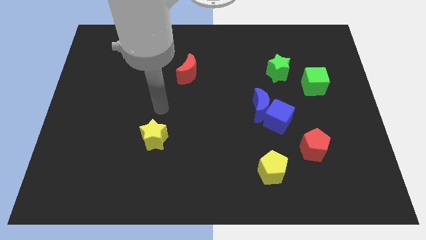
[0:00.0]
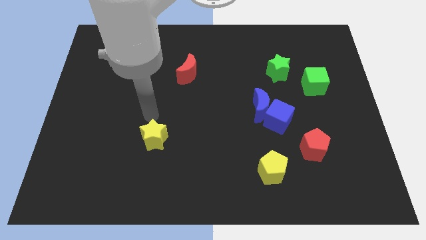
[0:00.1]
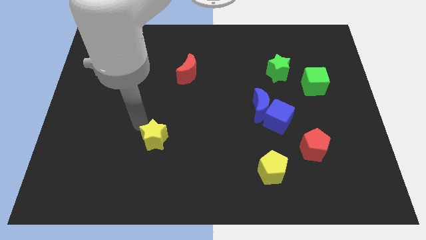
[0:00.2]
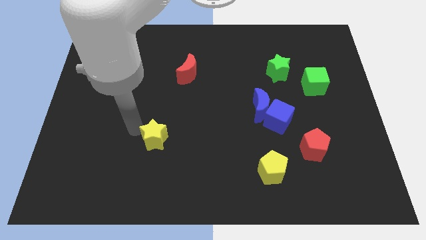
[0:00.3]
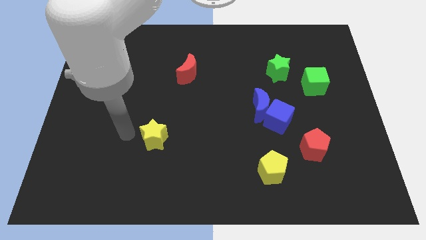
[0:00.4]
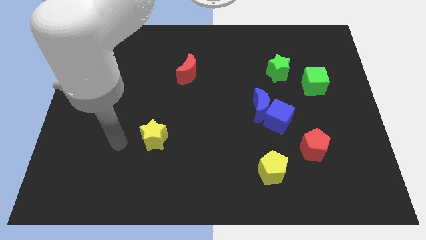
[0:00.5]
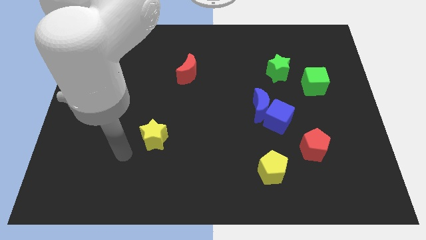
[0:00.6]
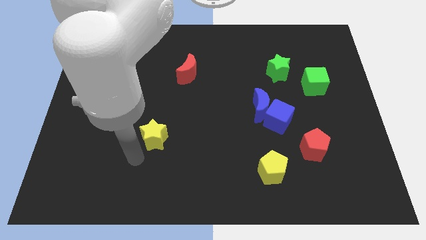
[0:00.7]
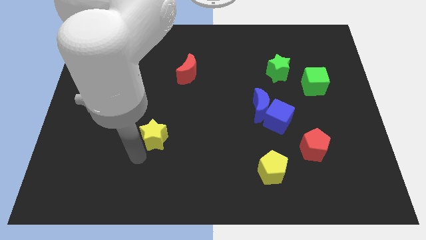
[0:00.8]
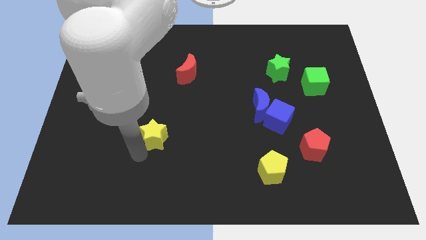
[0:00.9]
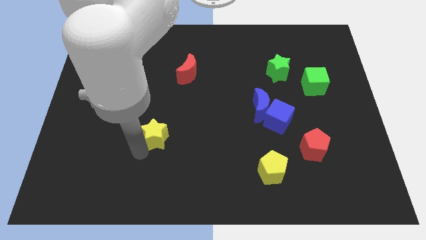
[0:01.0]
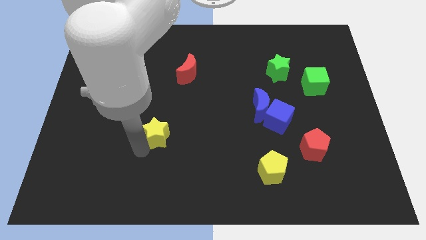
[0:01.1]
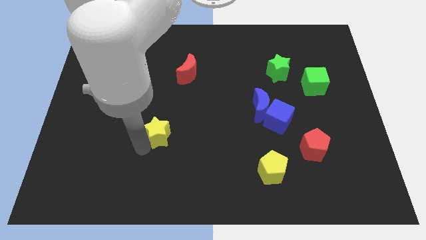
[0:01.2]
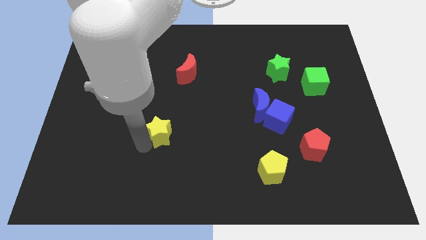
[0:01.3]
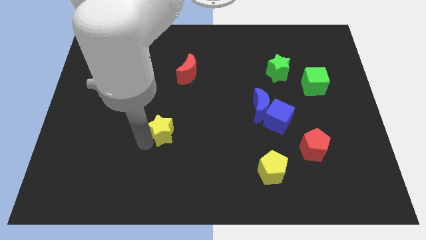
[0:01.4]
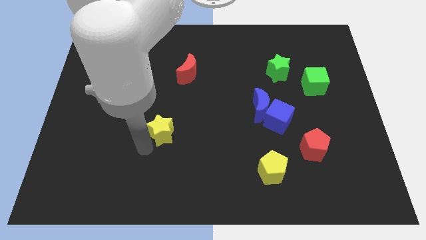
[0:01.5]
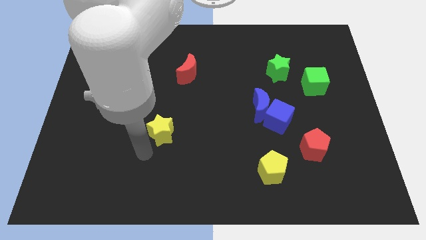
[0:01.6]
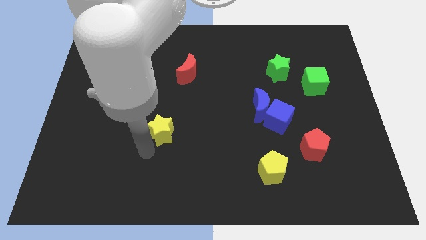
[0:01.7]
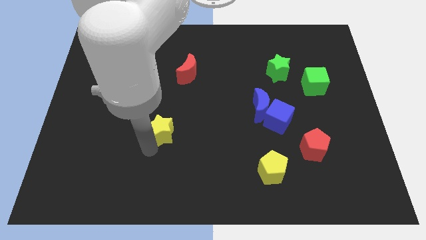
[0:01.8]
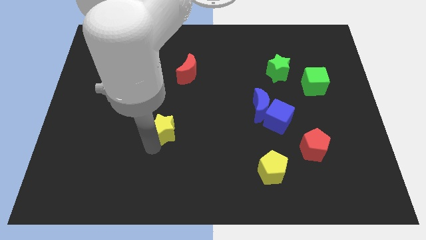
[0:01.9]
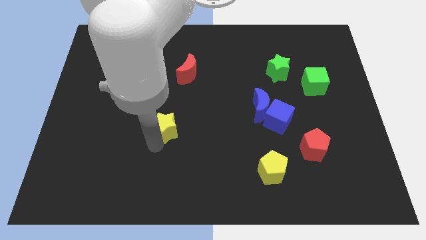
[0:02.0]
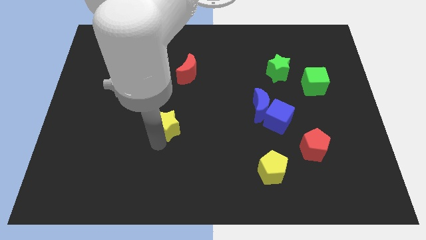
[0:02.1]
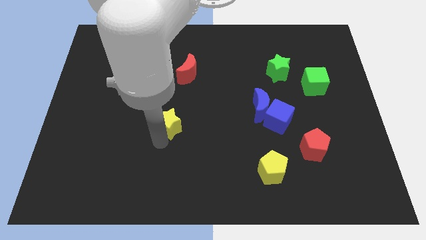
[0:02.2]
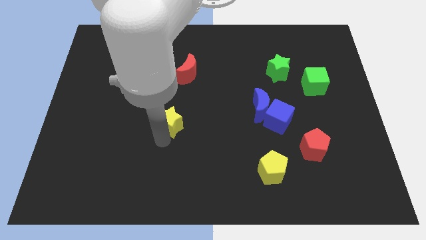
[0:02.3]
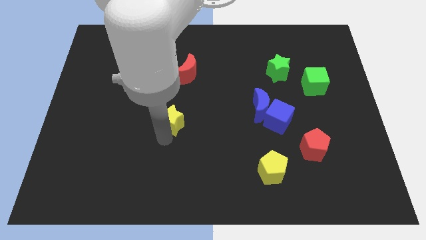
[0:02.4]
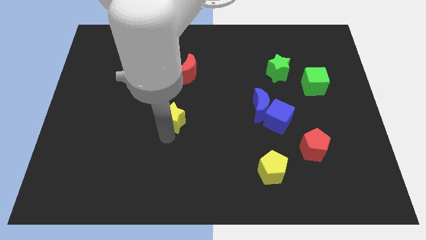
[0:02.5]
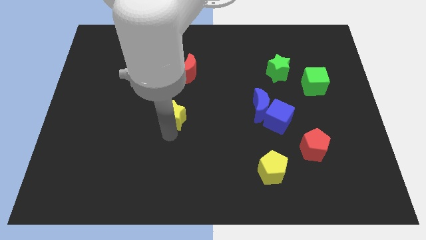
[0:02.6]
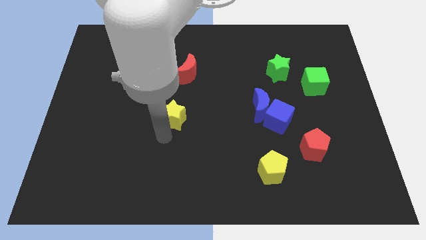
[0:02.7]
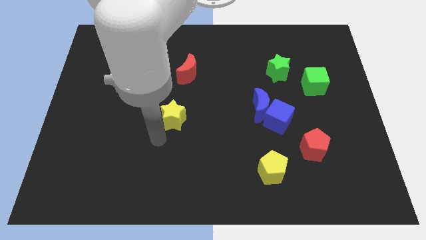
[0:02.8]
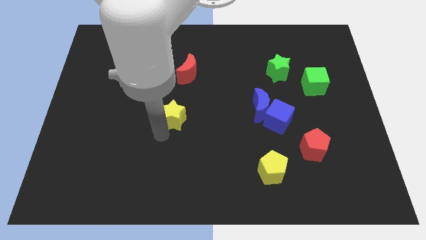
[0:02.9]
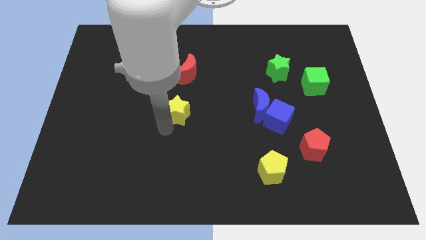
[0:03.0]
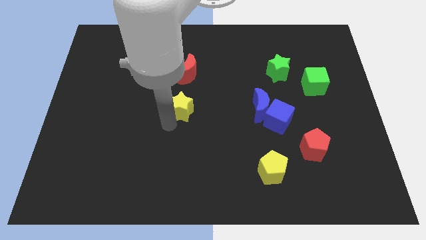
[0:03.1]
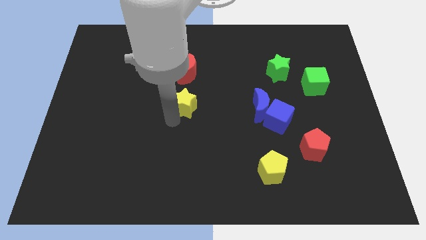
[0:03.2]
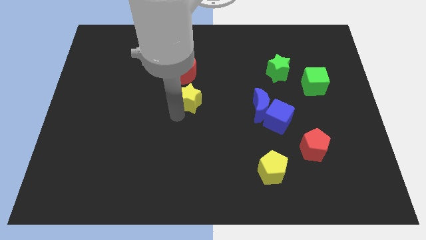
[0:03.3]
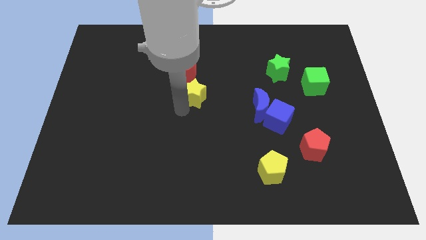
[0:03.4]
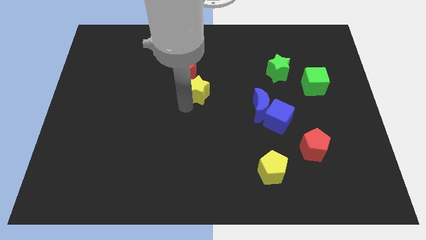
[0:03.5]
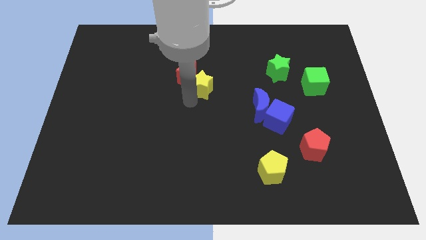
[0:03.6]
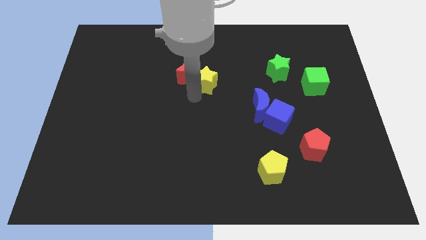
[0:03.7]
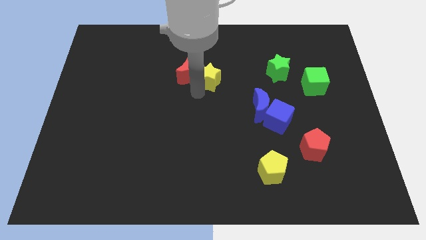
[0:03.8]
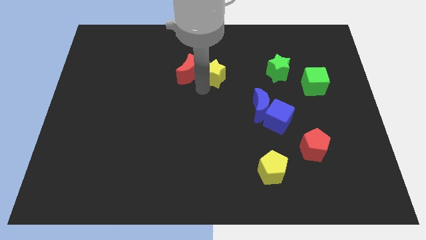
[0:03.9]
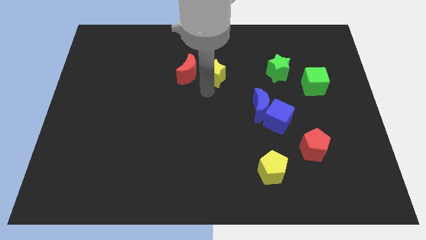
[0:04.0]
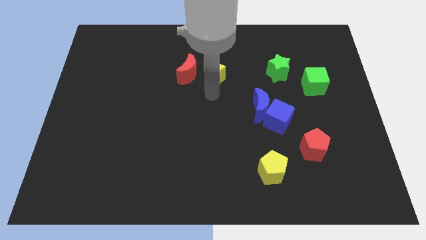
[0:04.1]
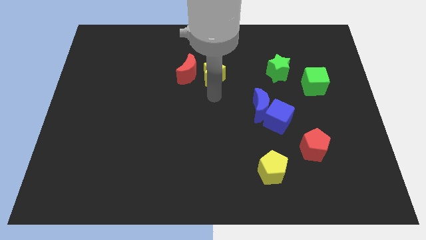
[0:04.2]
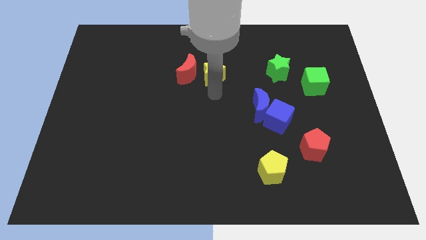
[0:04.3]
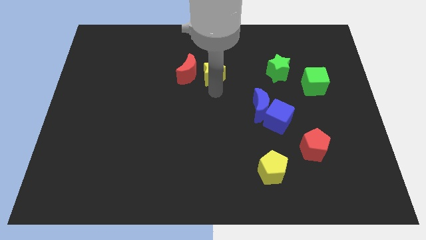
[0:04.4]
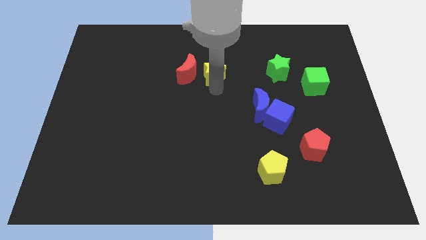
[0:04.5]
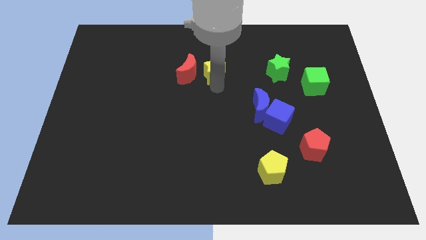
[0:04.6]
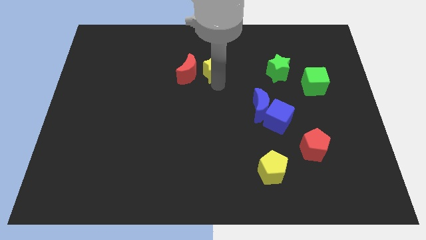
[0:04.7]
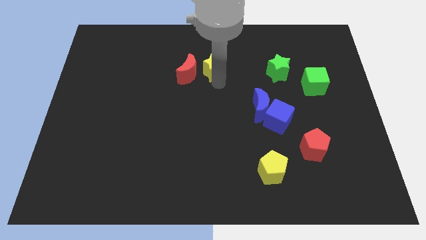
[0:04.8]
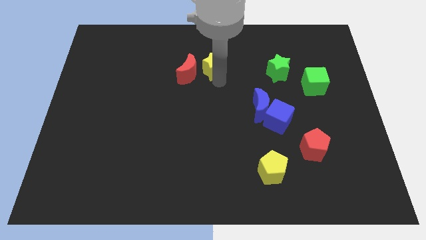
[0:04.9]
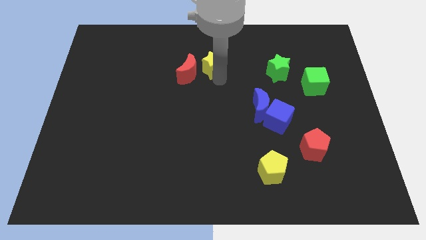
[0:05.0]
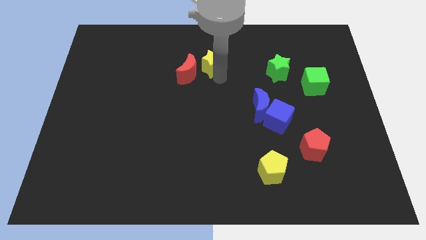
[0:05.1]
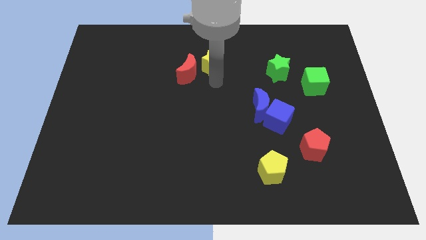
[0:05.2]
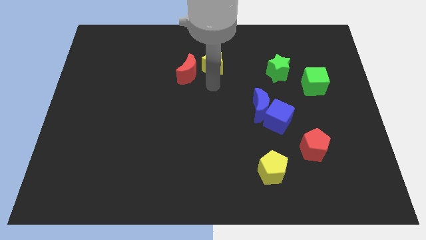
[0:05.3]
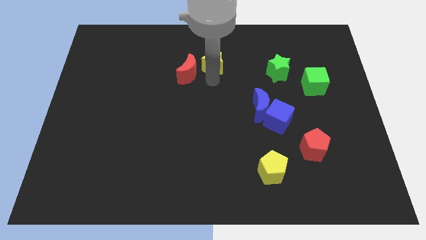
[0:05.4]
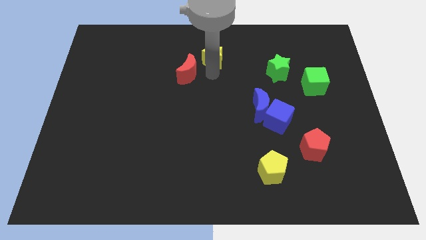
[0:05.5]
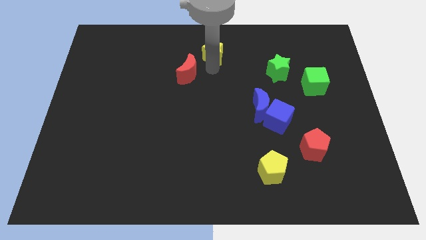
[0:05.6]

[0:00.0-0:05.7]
put the yellow star to the top
